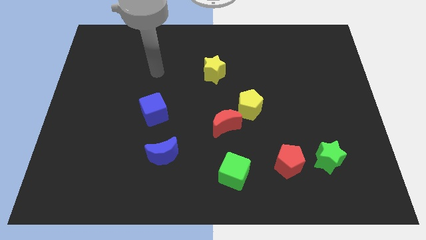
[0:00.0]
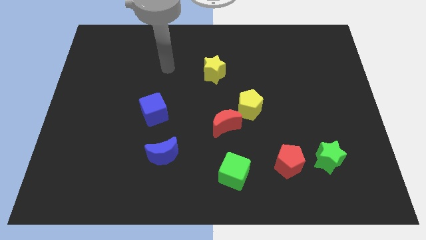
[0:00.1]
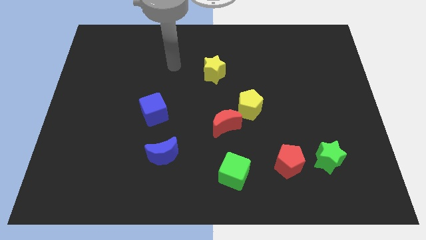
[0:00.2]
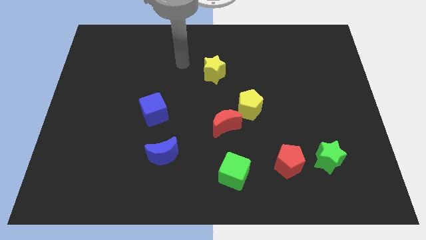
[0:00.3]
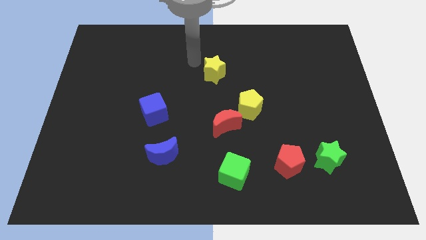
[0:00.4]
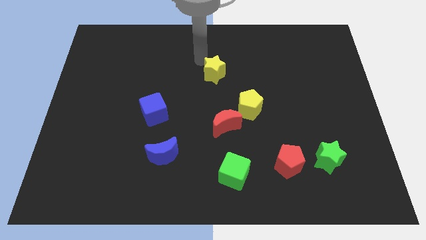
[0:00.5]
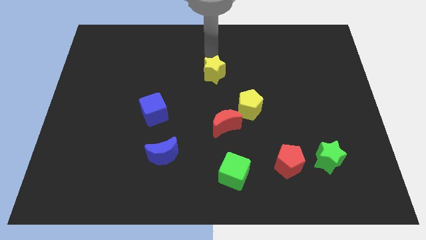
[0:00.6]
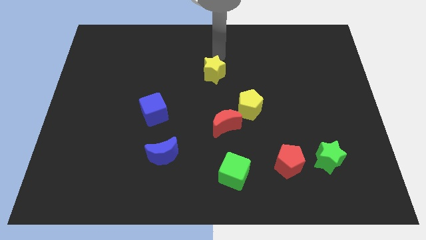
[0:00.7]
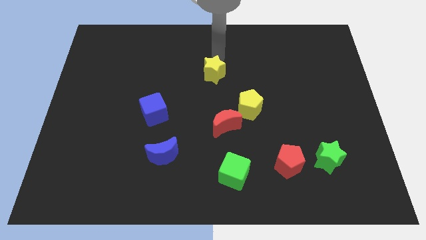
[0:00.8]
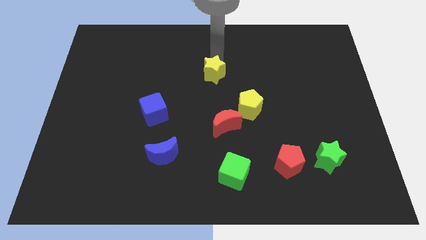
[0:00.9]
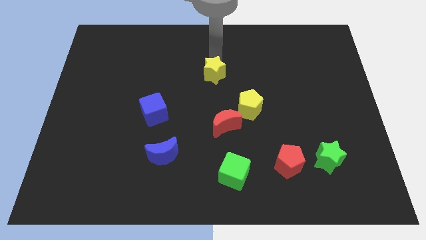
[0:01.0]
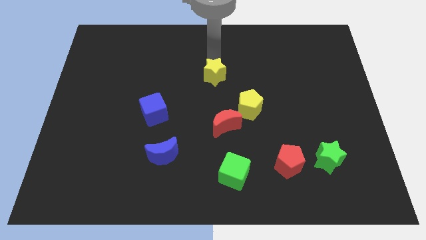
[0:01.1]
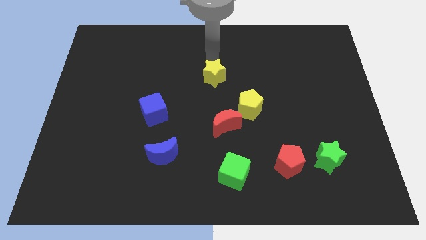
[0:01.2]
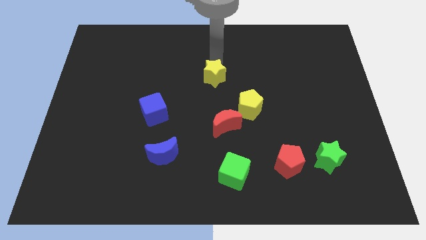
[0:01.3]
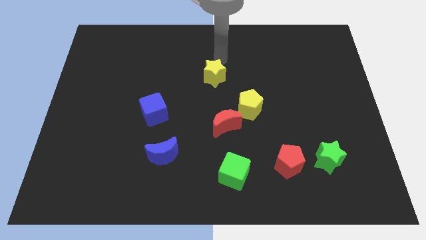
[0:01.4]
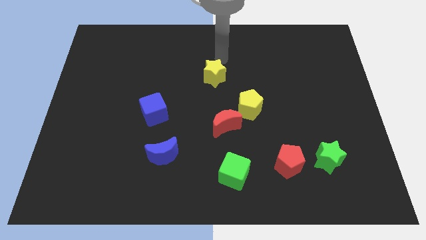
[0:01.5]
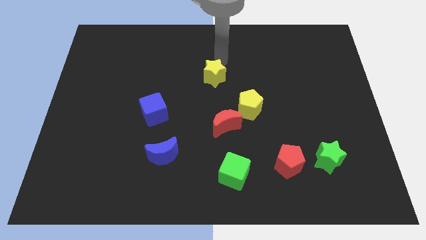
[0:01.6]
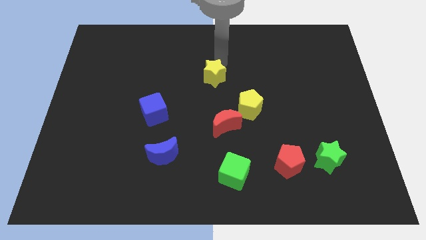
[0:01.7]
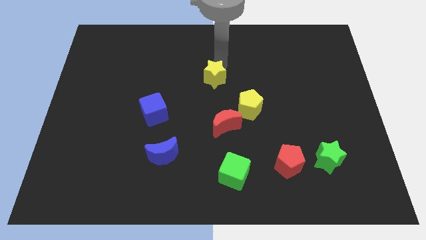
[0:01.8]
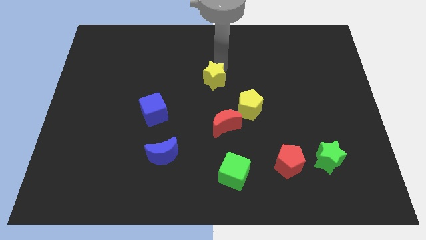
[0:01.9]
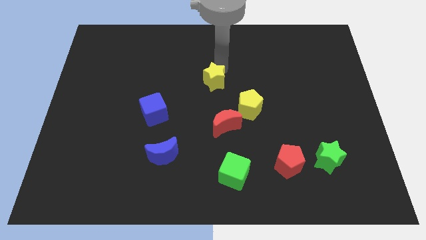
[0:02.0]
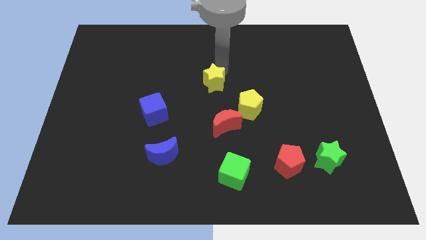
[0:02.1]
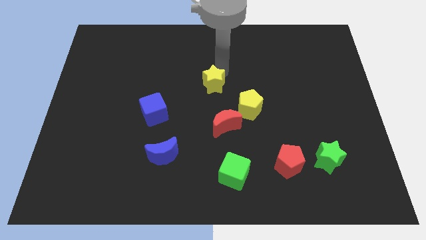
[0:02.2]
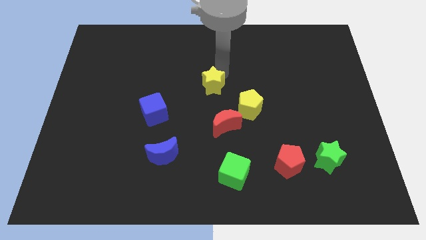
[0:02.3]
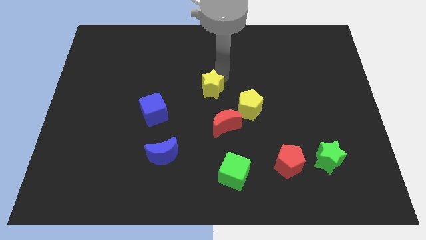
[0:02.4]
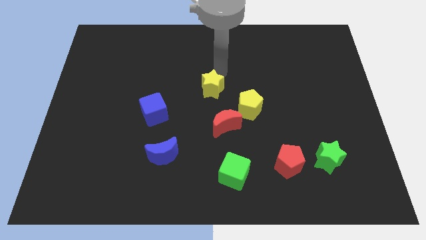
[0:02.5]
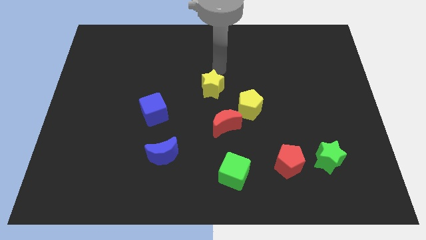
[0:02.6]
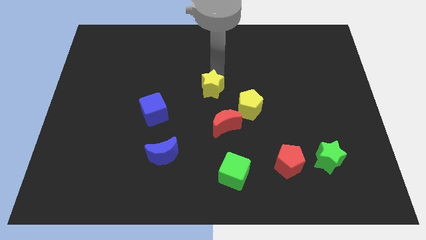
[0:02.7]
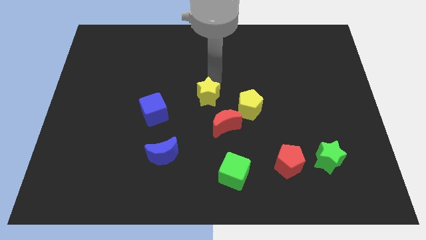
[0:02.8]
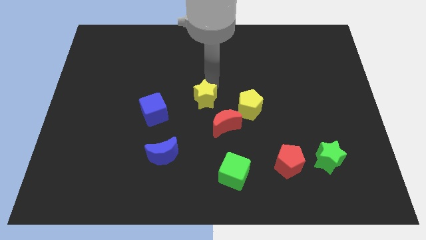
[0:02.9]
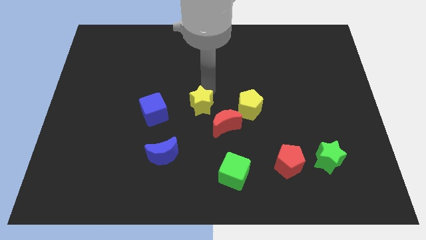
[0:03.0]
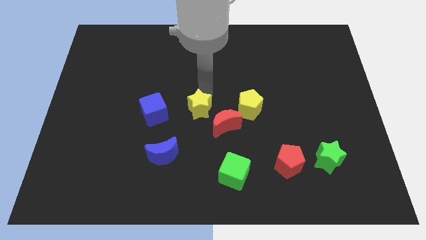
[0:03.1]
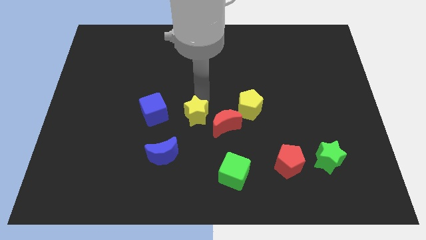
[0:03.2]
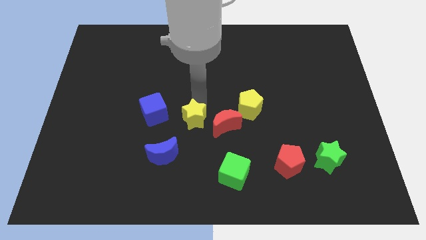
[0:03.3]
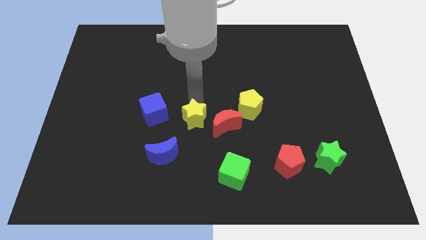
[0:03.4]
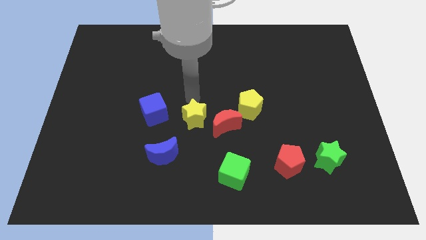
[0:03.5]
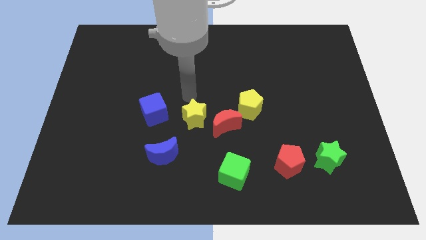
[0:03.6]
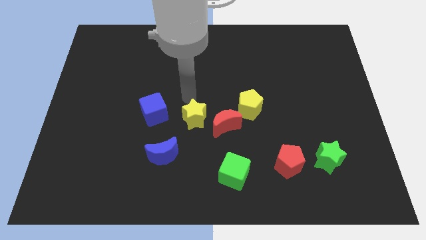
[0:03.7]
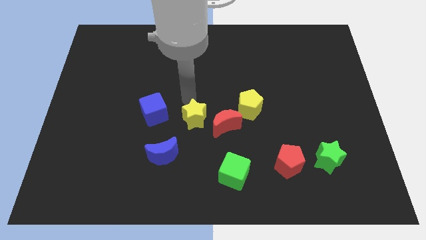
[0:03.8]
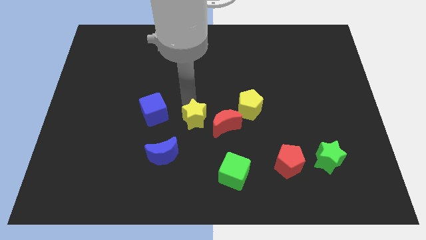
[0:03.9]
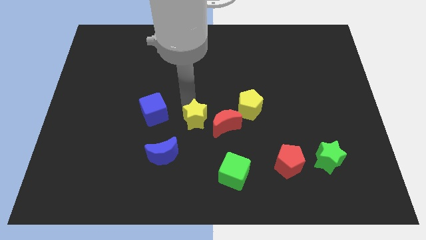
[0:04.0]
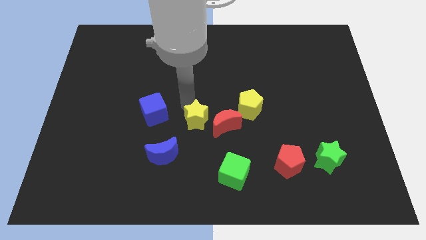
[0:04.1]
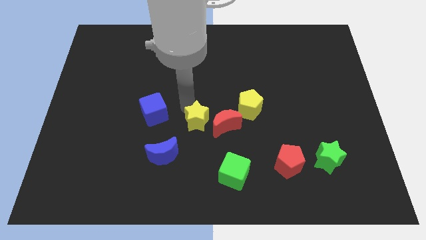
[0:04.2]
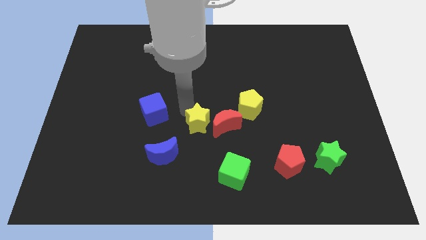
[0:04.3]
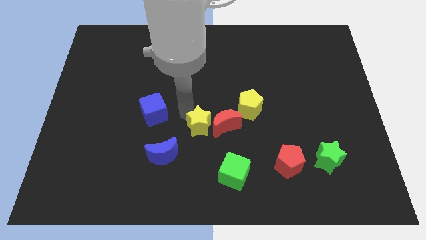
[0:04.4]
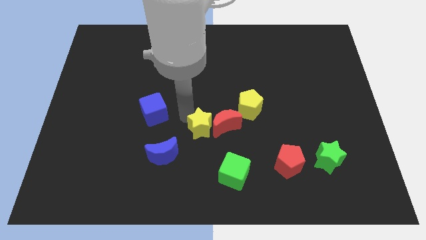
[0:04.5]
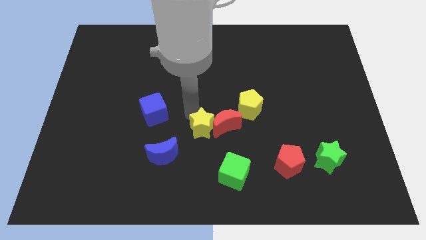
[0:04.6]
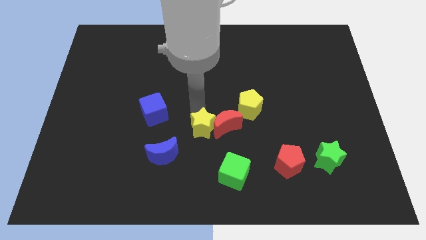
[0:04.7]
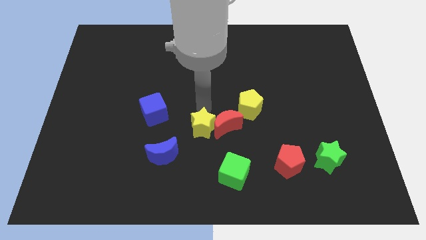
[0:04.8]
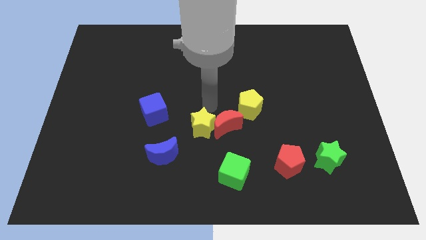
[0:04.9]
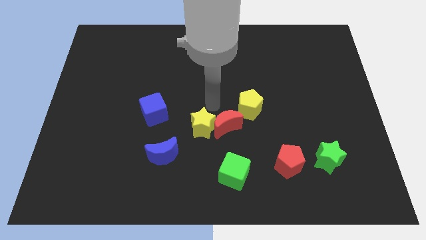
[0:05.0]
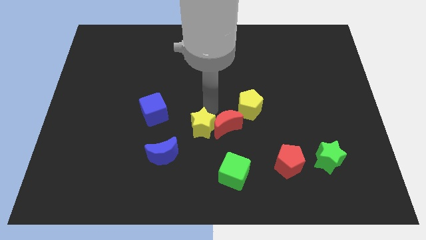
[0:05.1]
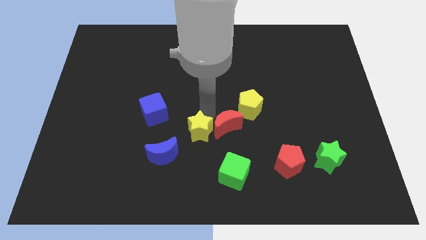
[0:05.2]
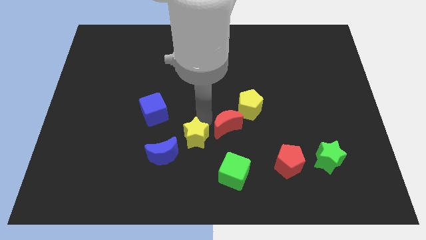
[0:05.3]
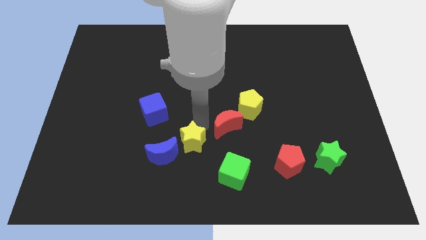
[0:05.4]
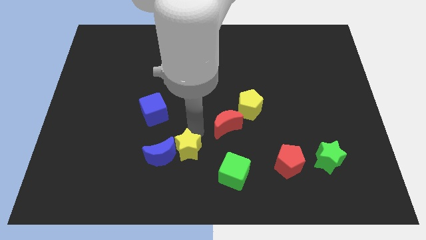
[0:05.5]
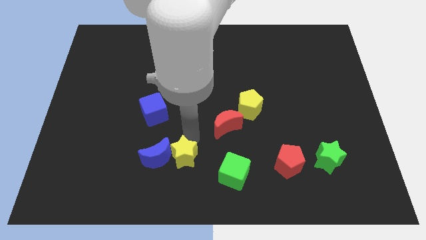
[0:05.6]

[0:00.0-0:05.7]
slide the yellow star just left of the green cube

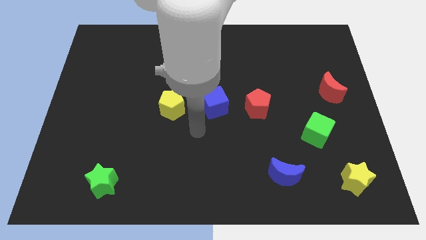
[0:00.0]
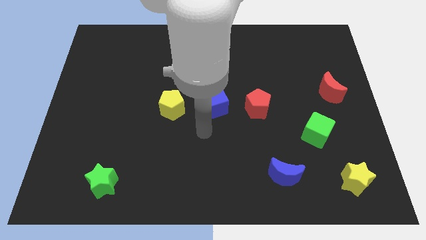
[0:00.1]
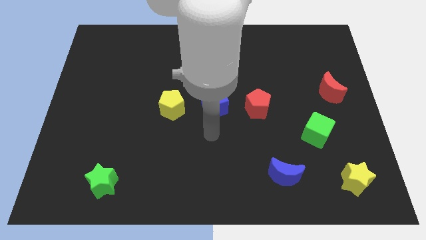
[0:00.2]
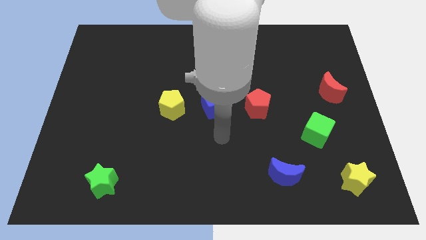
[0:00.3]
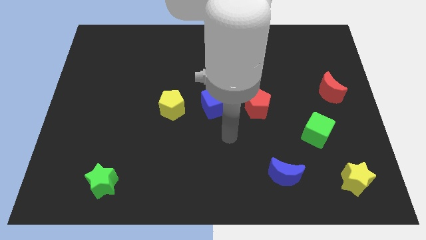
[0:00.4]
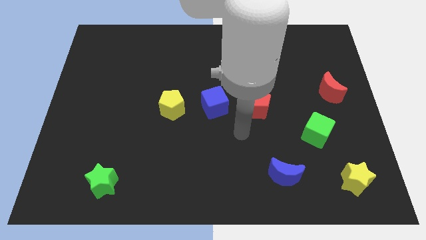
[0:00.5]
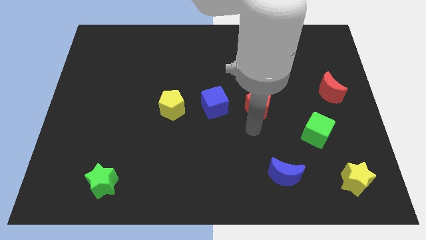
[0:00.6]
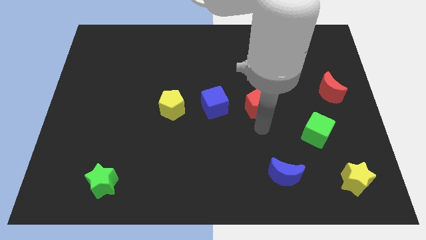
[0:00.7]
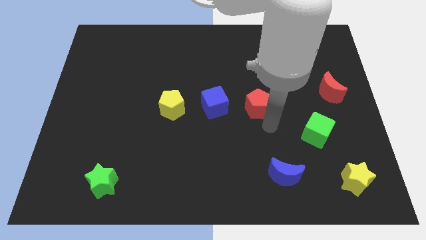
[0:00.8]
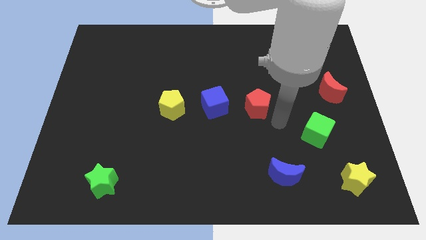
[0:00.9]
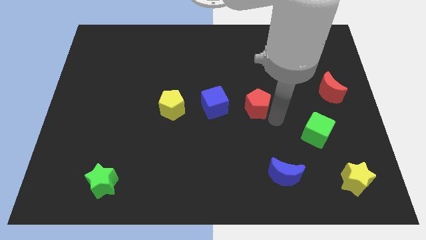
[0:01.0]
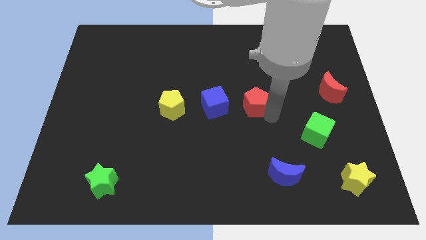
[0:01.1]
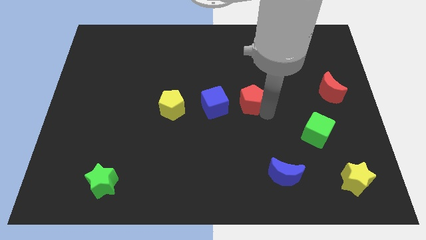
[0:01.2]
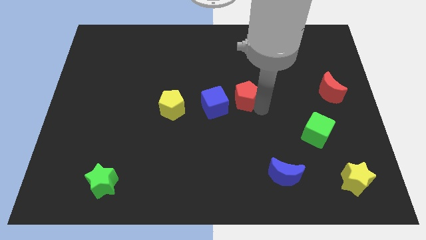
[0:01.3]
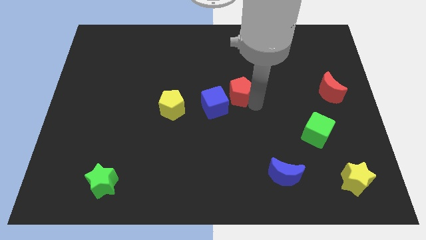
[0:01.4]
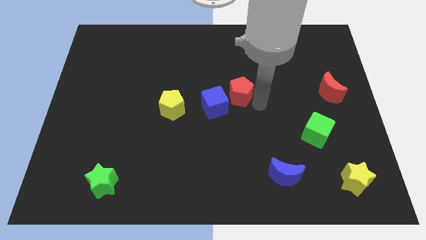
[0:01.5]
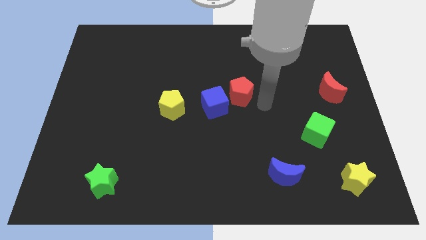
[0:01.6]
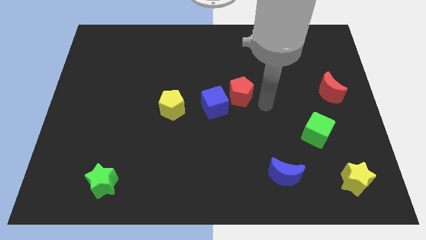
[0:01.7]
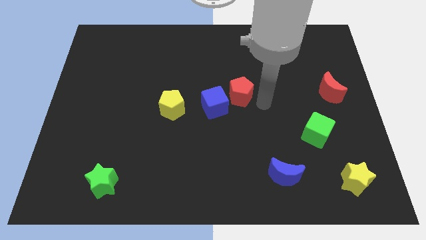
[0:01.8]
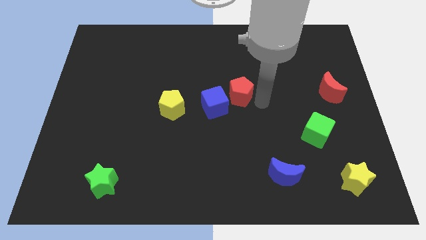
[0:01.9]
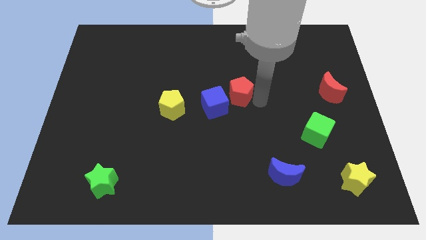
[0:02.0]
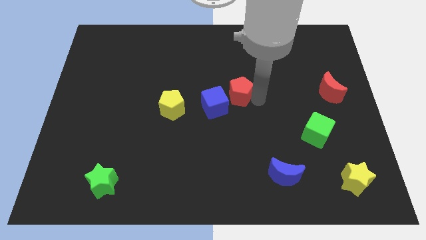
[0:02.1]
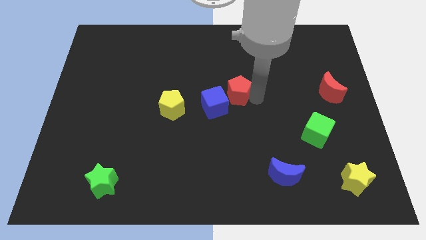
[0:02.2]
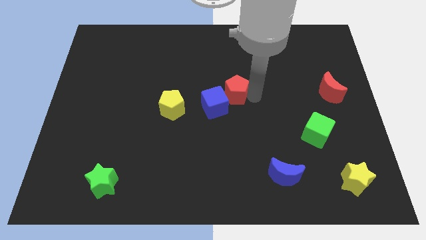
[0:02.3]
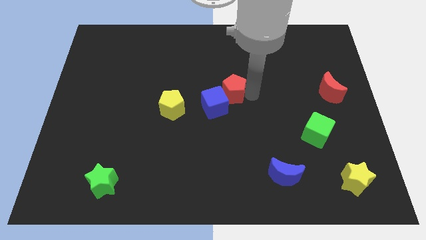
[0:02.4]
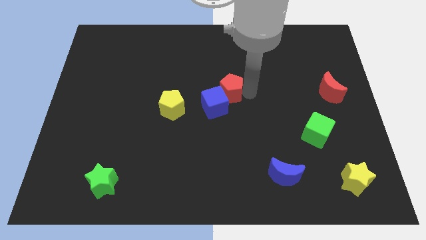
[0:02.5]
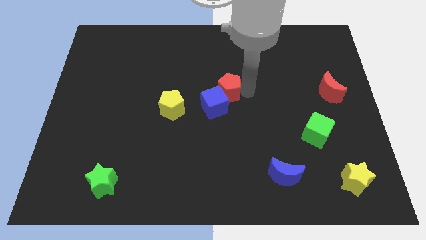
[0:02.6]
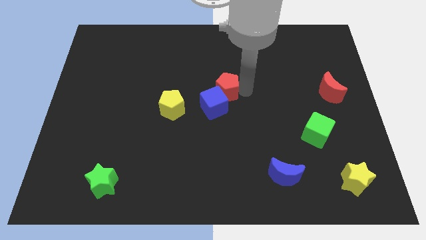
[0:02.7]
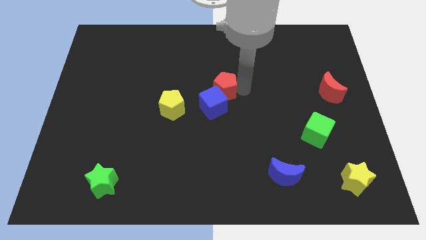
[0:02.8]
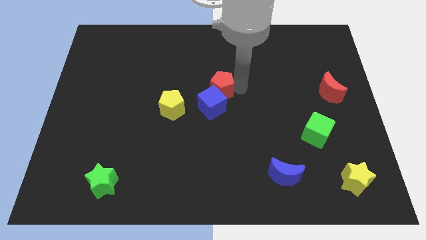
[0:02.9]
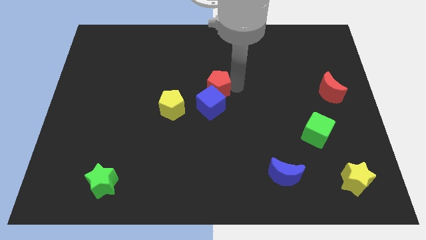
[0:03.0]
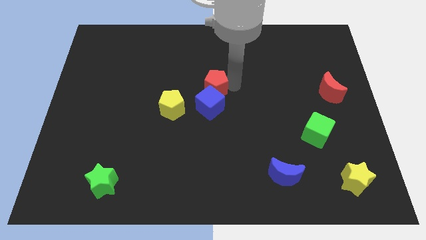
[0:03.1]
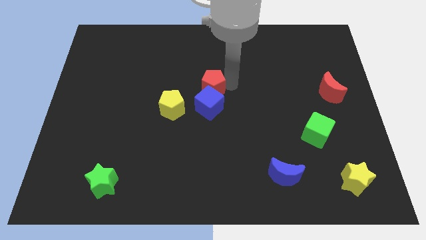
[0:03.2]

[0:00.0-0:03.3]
push the red pentagon diagonally up and to the left of the blue cube
